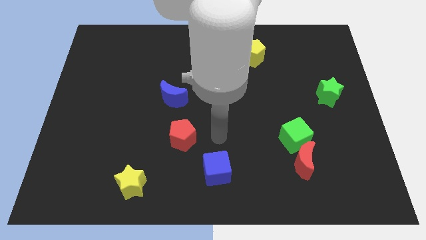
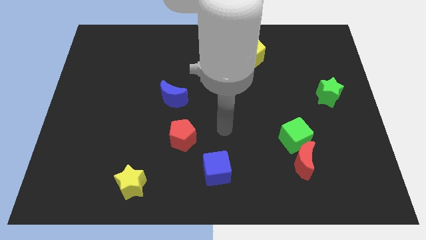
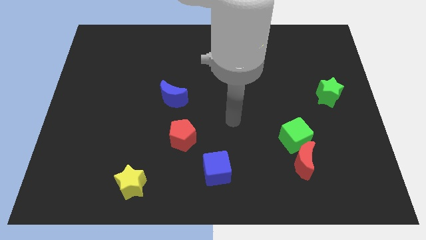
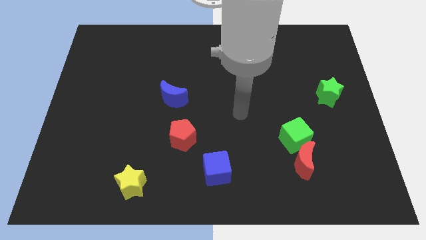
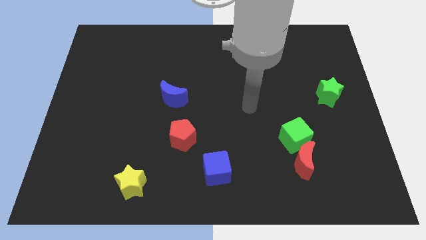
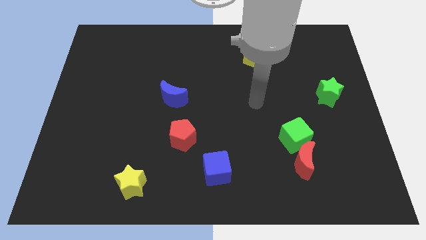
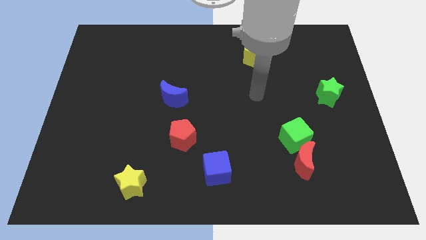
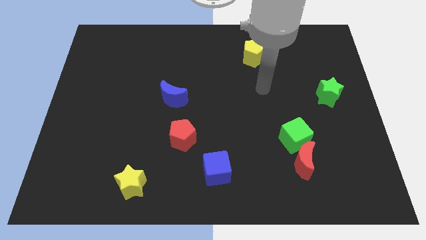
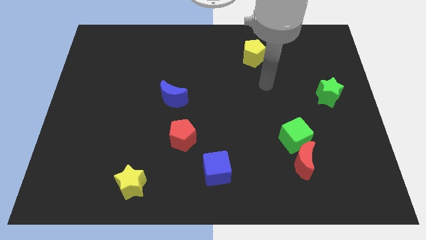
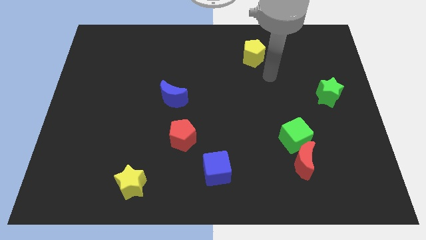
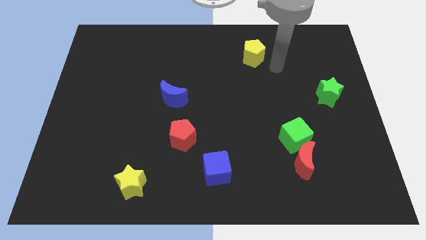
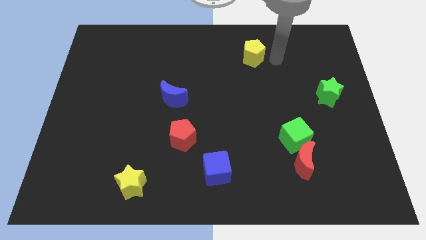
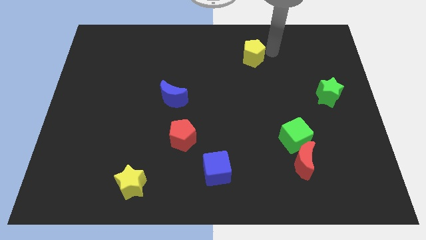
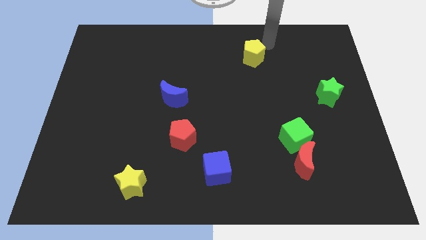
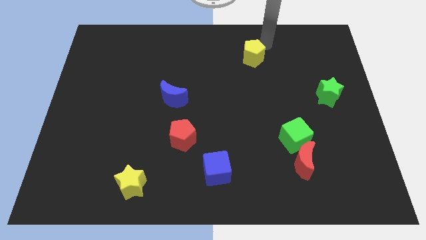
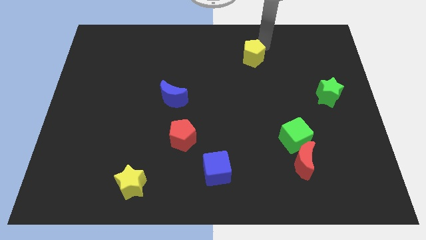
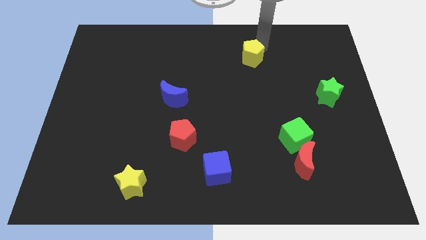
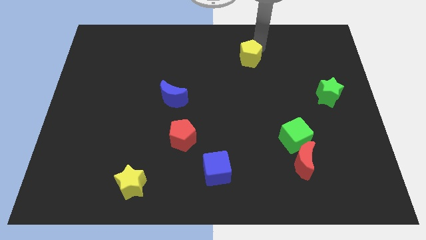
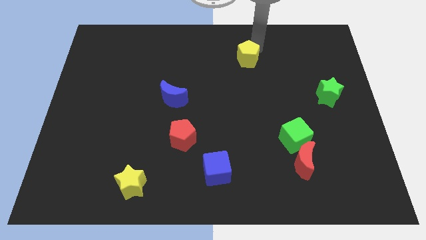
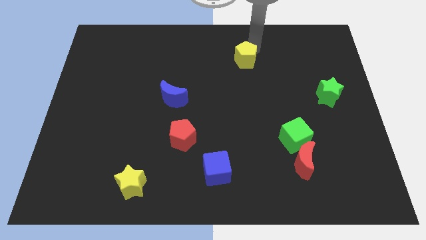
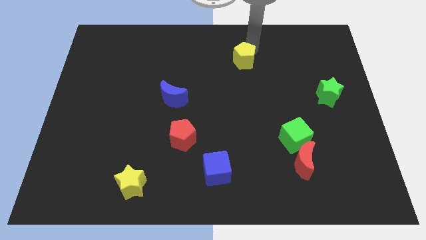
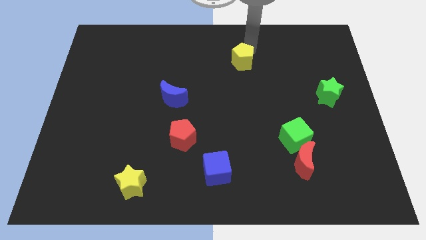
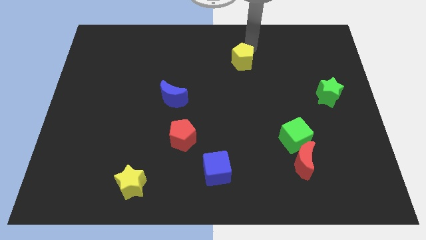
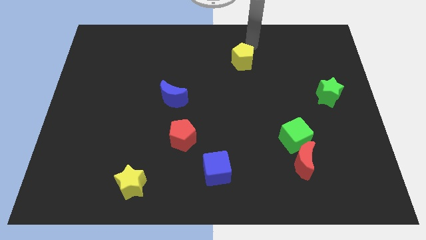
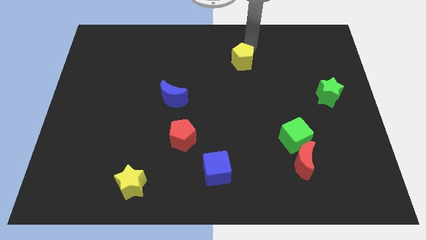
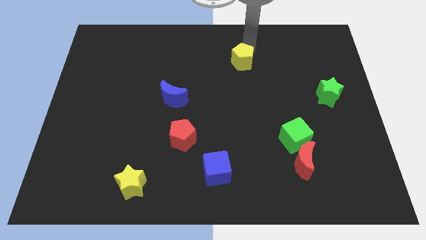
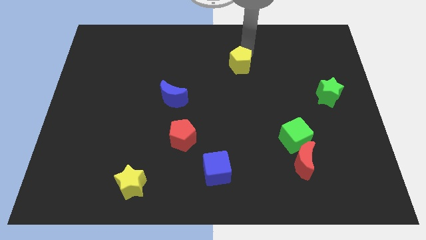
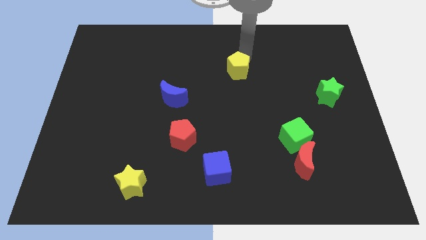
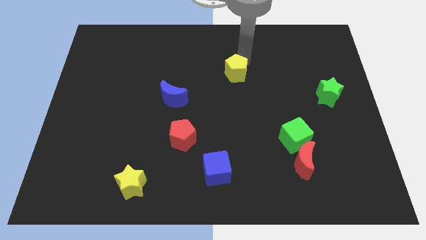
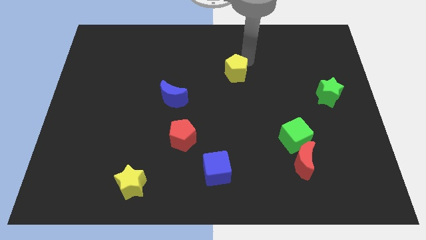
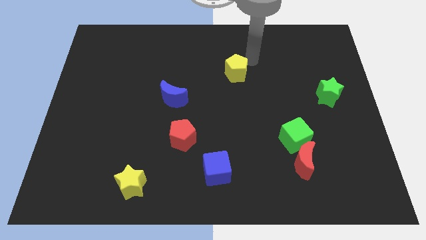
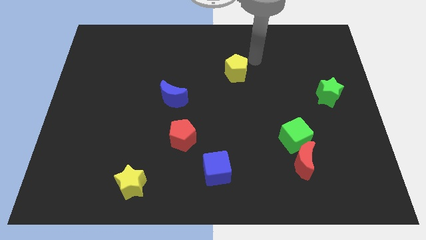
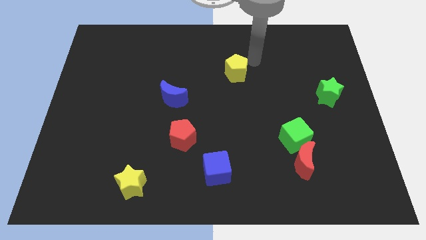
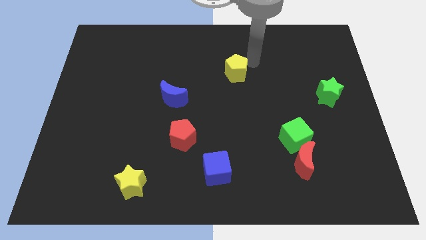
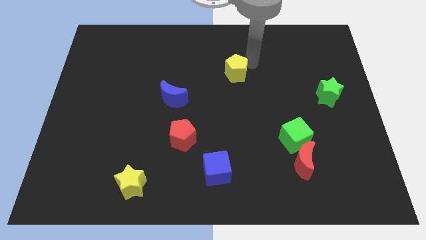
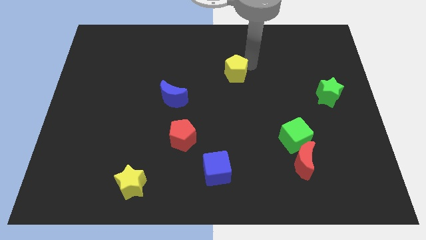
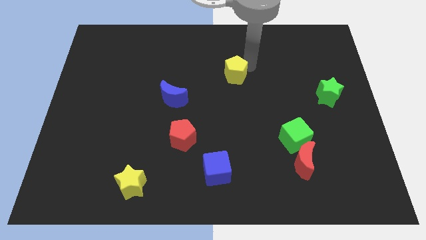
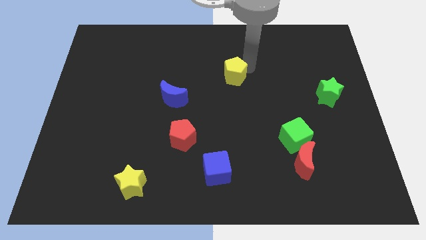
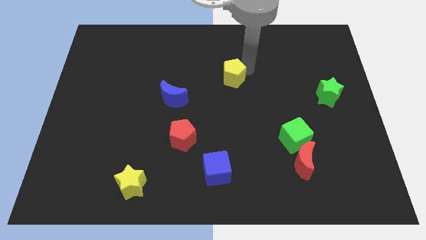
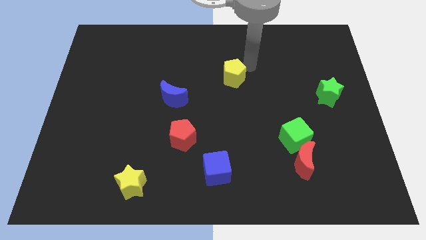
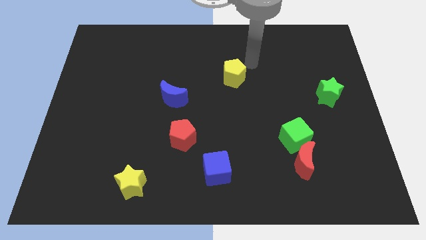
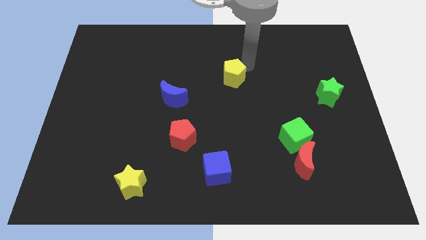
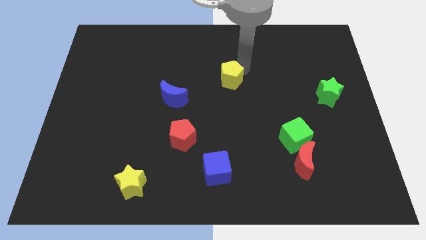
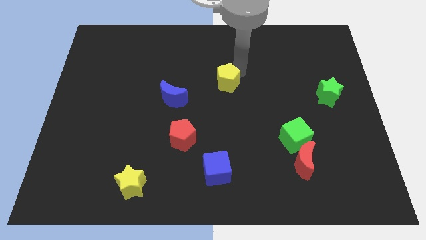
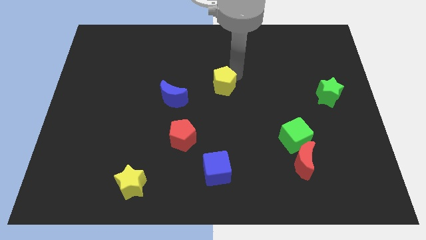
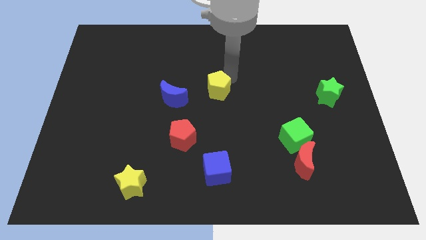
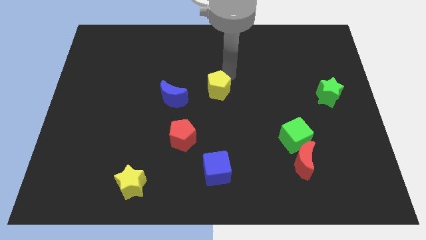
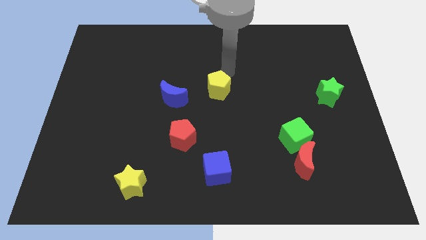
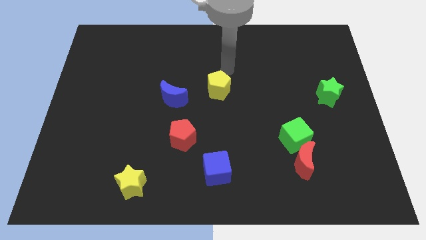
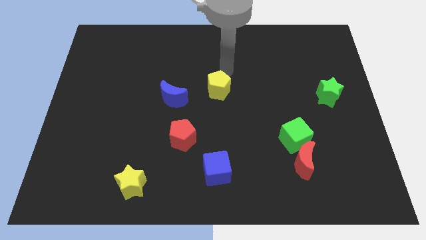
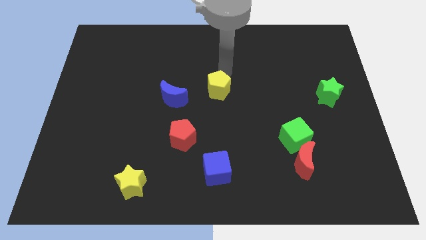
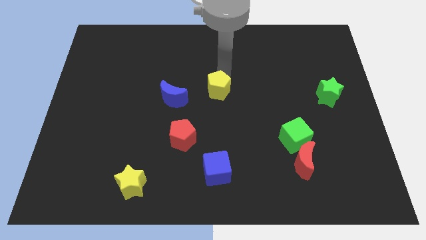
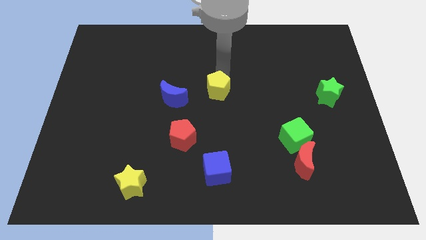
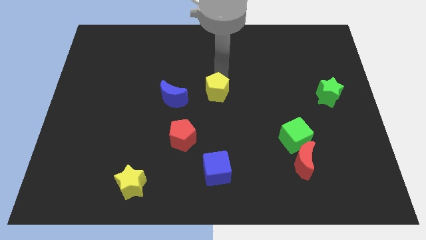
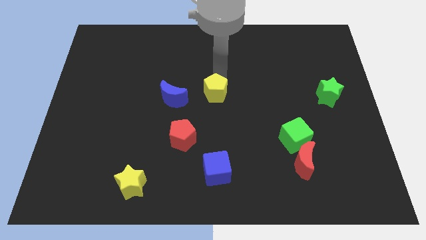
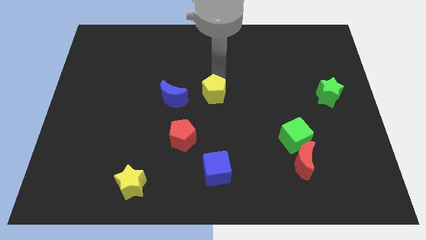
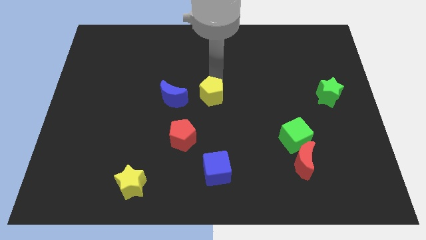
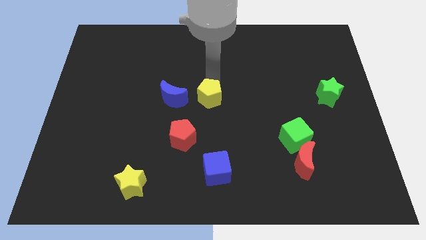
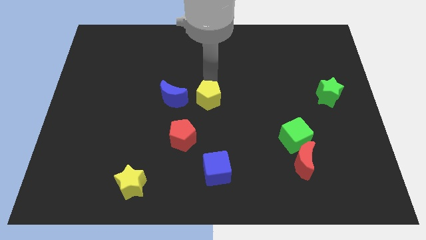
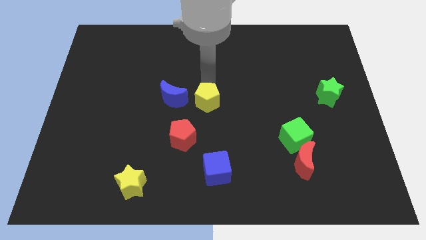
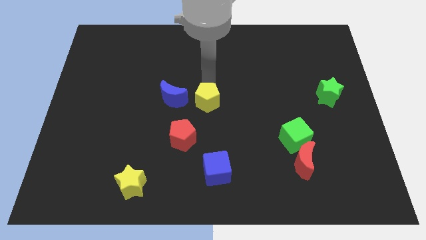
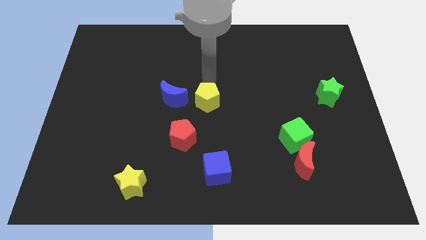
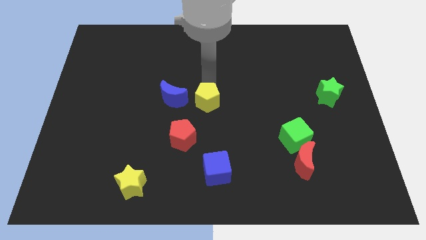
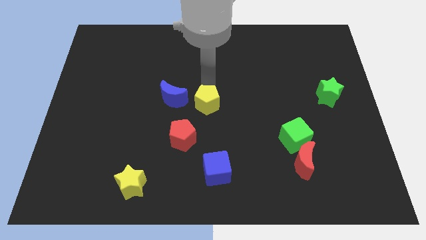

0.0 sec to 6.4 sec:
put the yellow pentagon to the top right side of the red pentagon

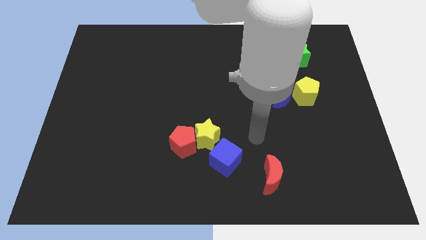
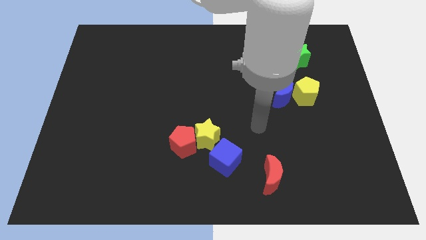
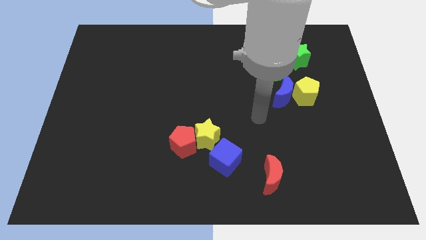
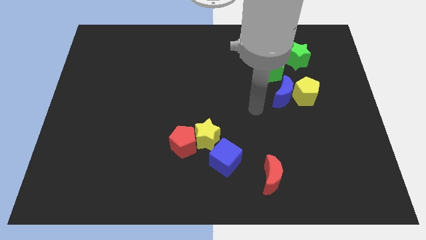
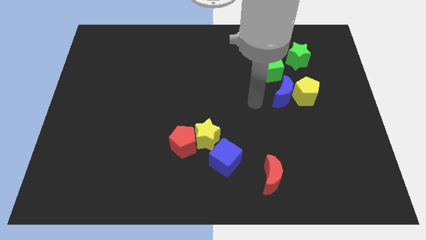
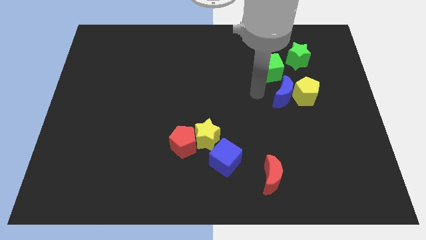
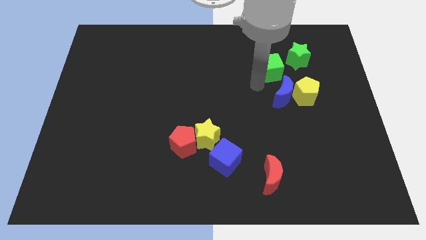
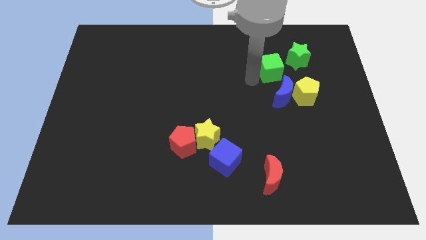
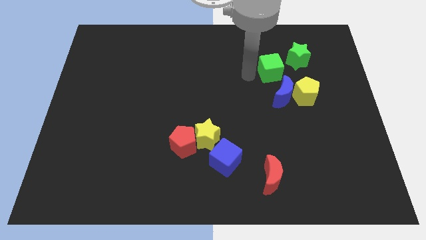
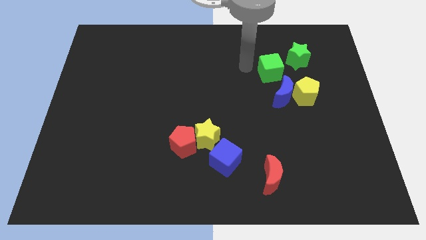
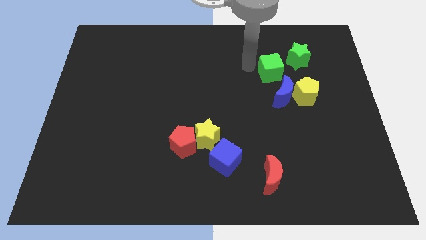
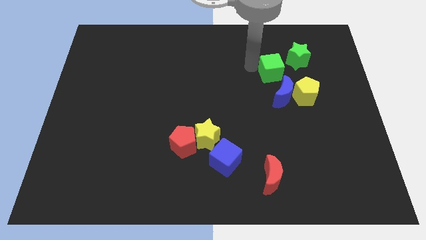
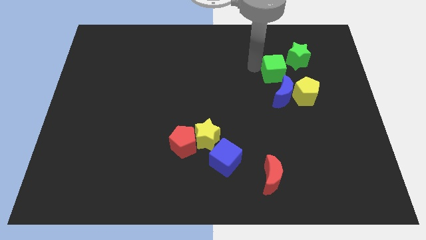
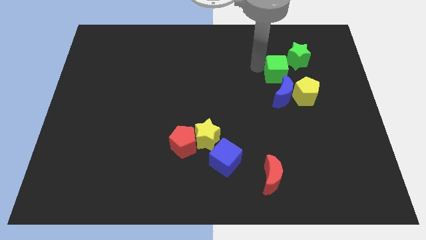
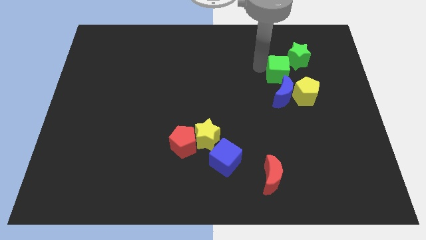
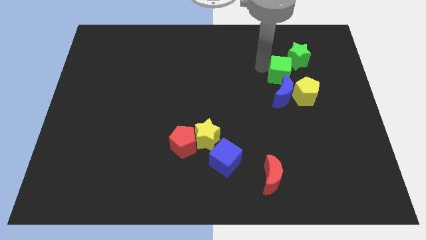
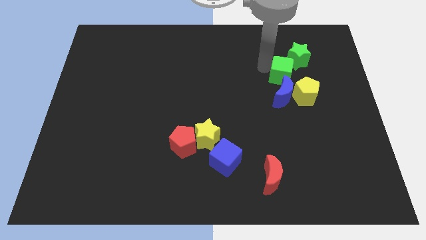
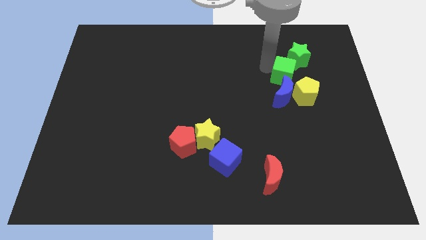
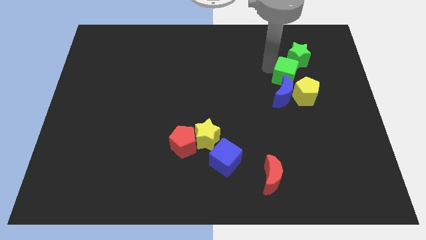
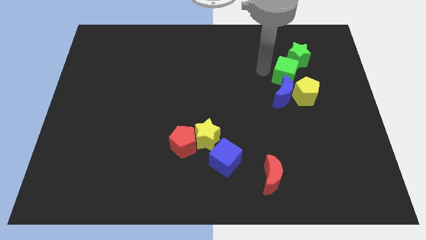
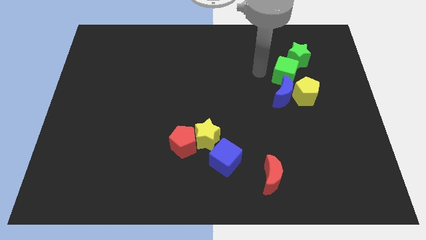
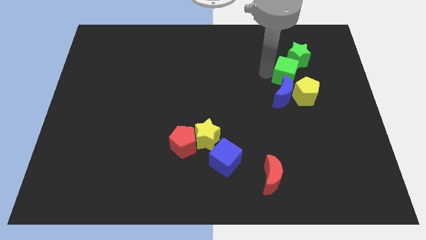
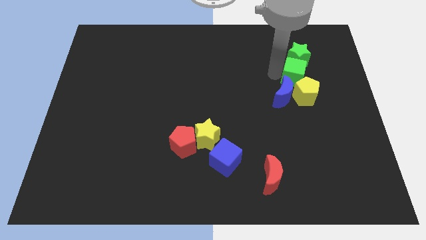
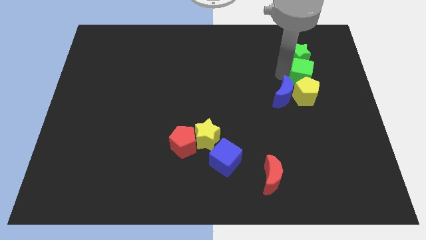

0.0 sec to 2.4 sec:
put the green cube to the top right of the yellow pentagon
